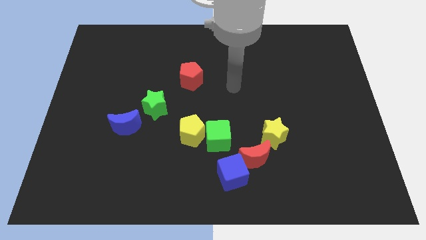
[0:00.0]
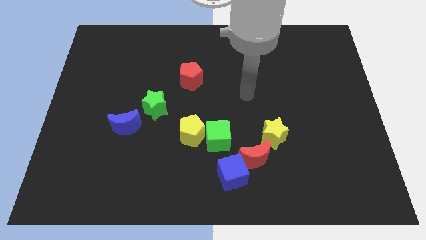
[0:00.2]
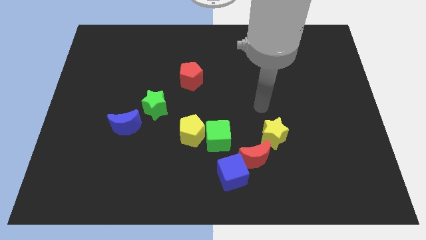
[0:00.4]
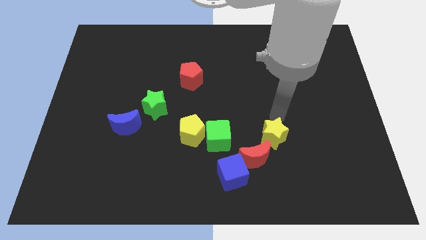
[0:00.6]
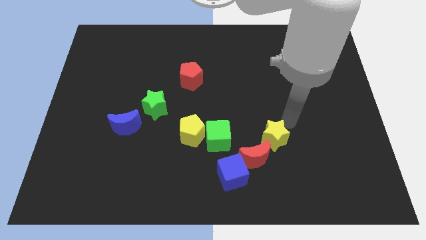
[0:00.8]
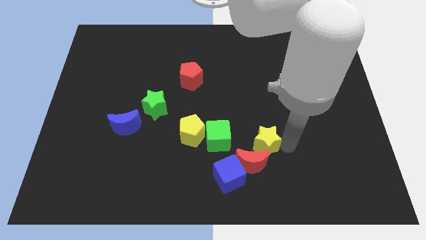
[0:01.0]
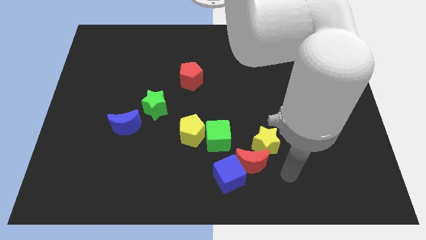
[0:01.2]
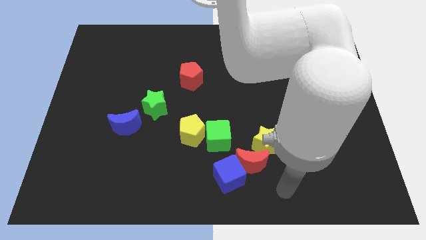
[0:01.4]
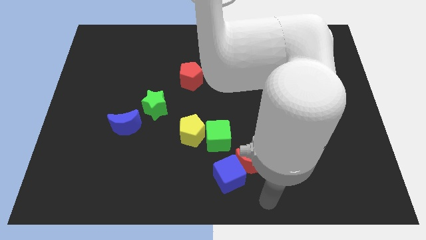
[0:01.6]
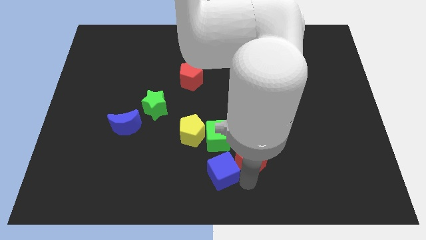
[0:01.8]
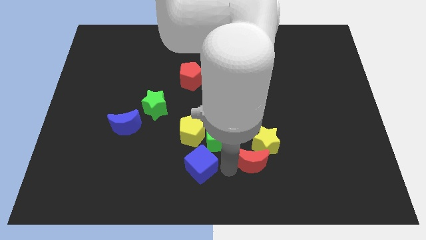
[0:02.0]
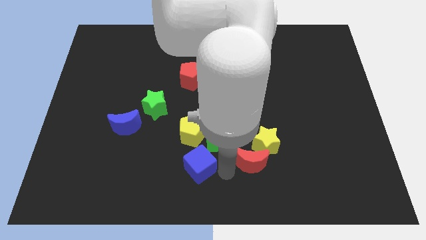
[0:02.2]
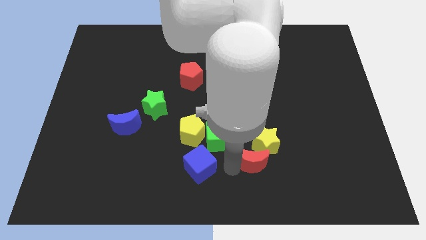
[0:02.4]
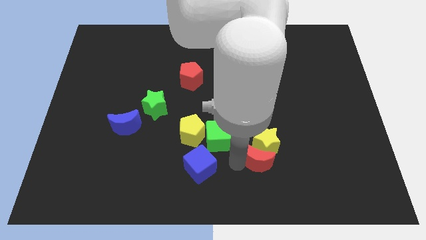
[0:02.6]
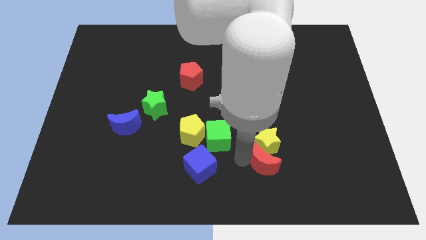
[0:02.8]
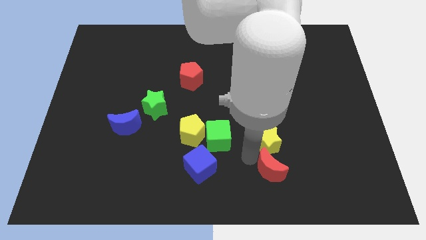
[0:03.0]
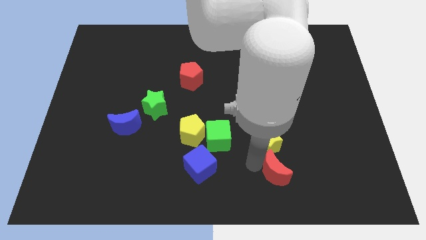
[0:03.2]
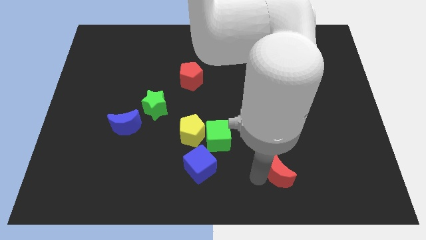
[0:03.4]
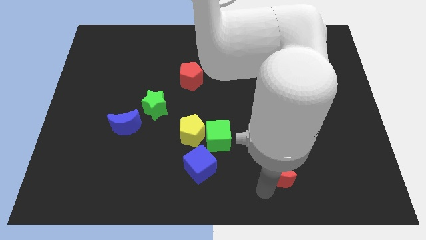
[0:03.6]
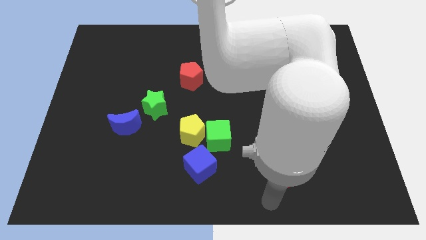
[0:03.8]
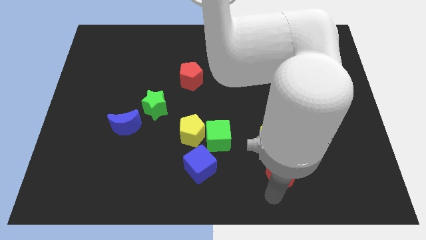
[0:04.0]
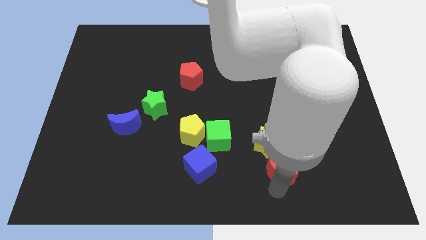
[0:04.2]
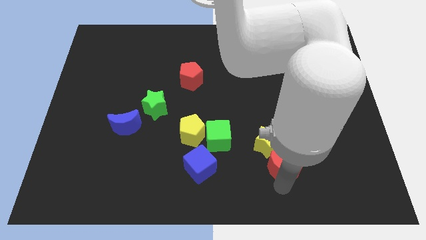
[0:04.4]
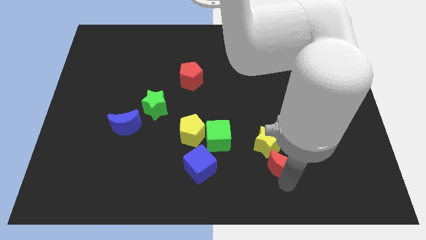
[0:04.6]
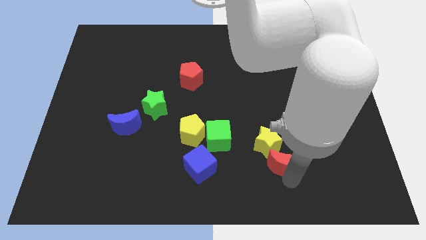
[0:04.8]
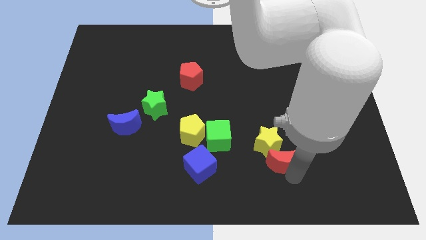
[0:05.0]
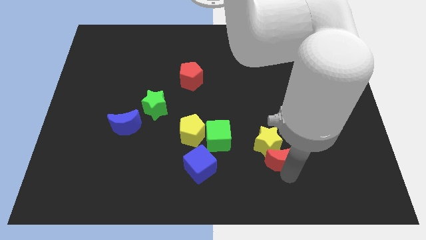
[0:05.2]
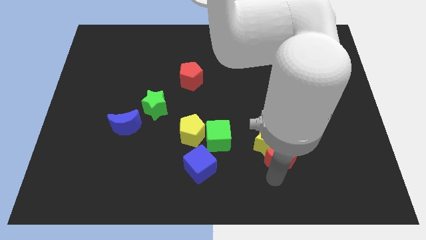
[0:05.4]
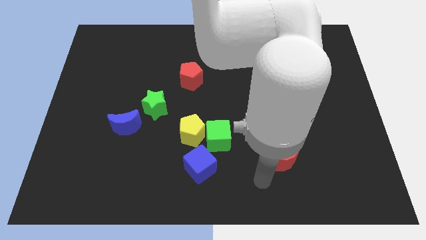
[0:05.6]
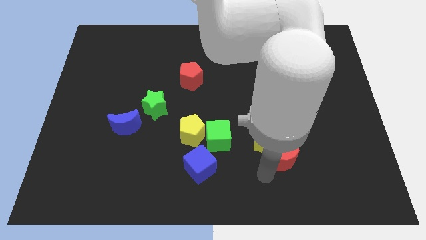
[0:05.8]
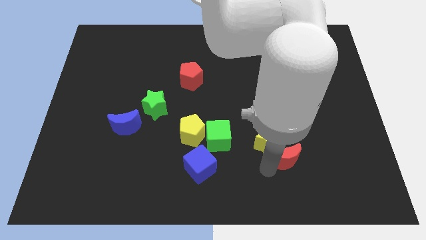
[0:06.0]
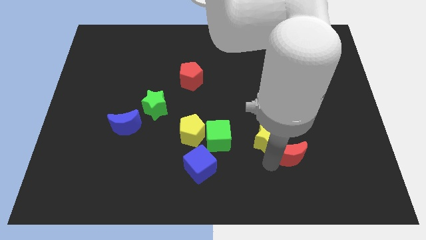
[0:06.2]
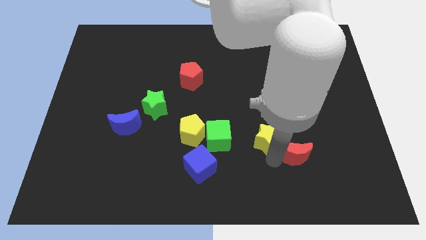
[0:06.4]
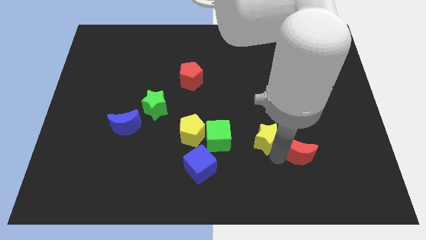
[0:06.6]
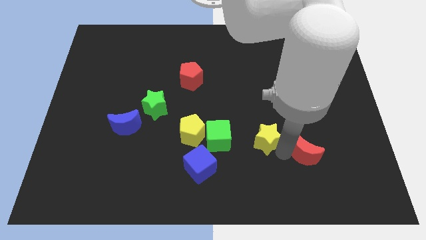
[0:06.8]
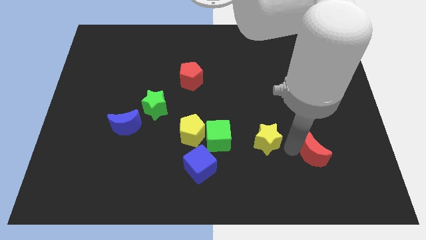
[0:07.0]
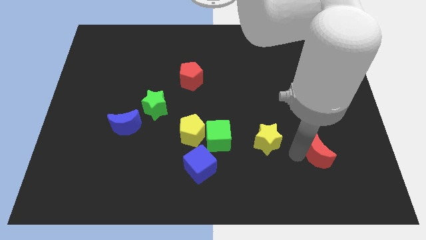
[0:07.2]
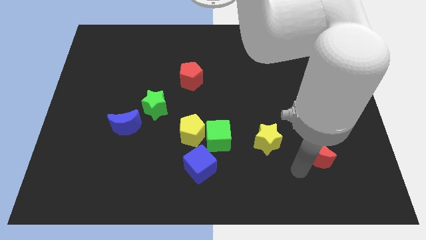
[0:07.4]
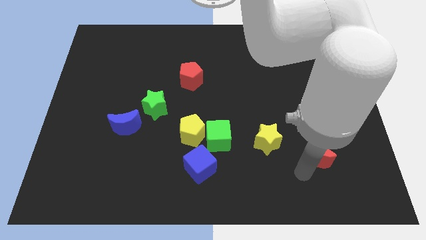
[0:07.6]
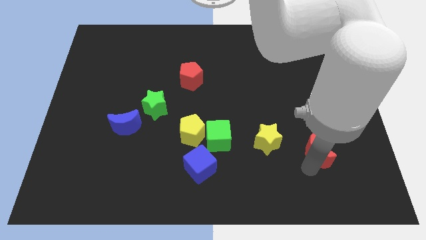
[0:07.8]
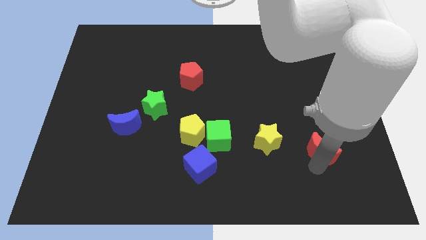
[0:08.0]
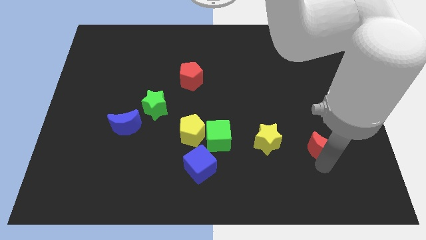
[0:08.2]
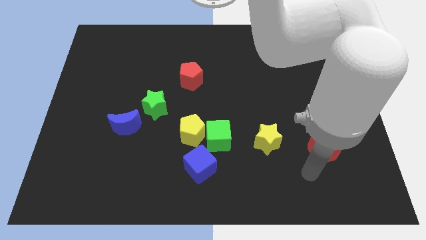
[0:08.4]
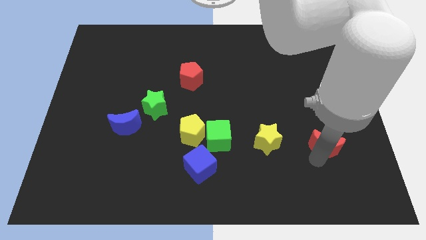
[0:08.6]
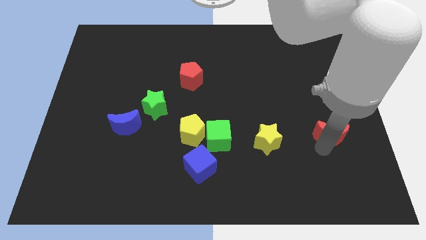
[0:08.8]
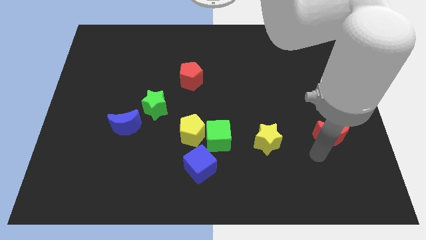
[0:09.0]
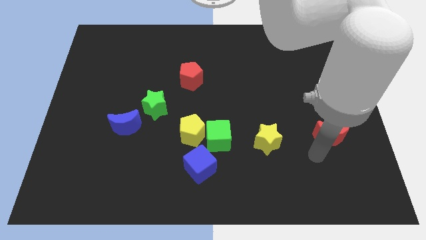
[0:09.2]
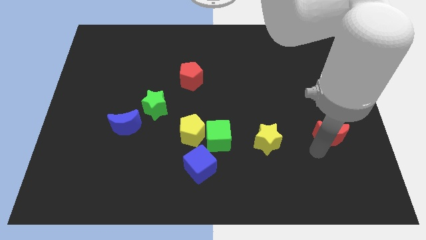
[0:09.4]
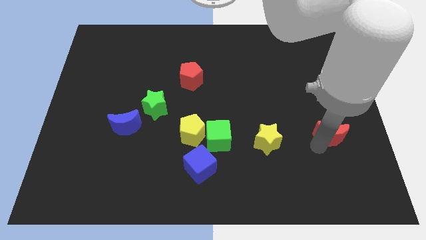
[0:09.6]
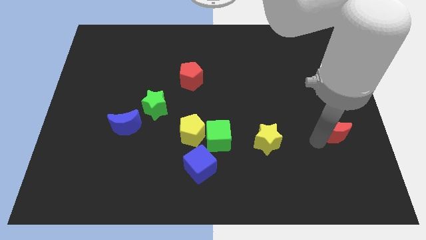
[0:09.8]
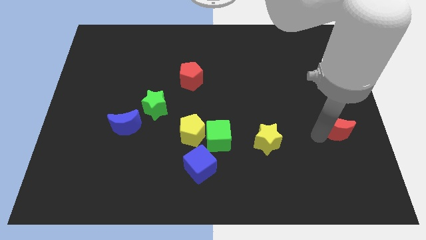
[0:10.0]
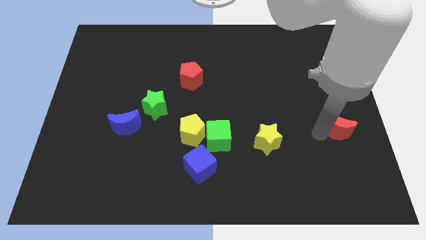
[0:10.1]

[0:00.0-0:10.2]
push the red moon to the center right

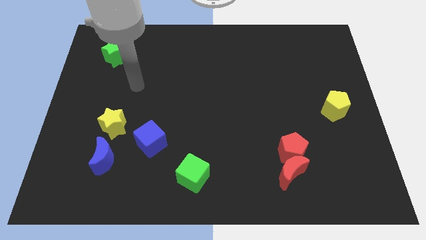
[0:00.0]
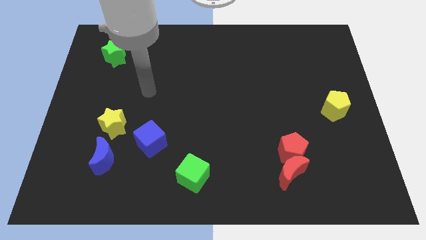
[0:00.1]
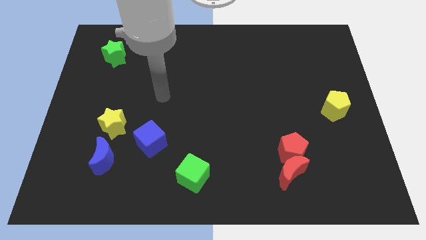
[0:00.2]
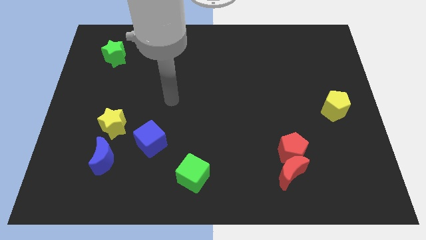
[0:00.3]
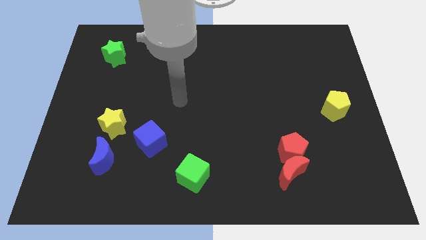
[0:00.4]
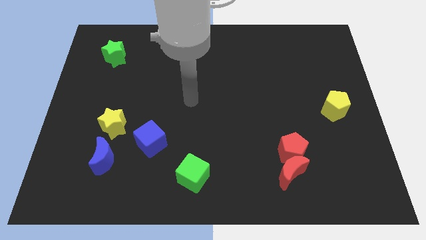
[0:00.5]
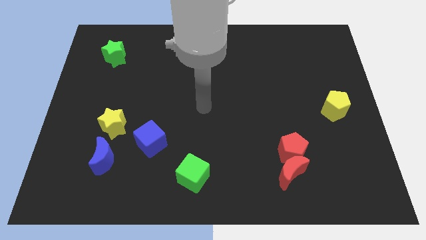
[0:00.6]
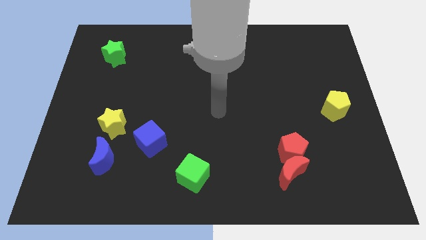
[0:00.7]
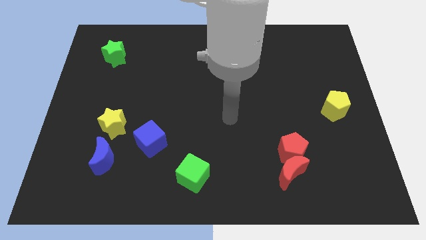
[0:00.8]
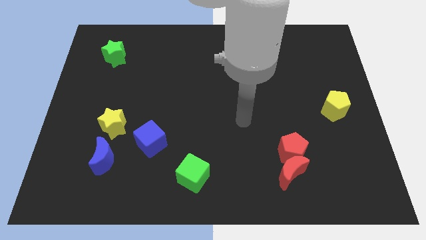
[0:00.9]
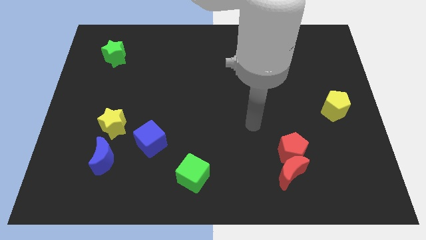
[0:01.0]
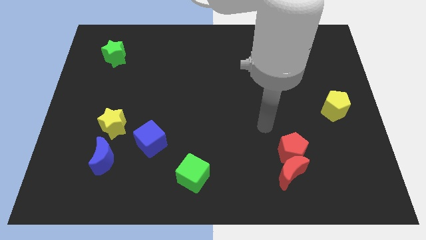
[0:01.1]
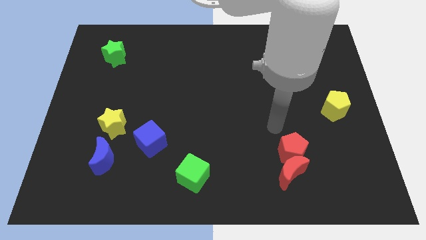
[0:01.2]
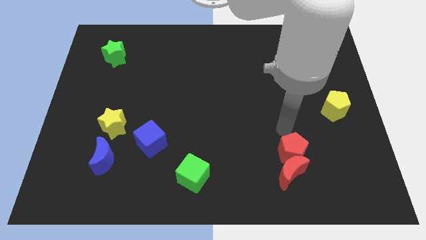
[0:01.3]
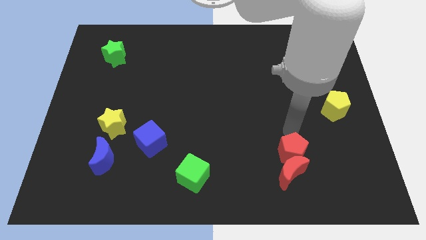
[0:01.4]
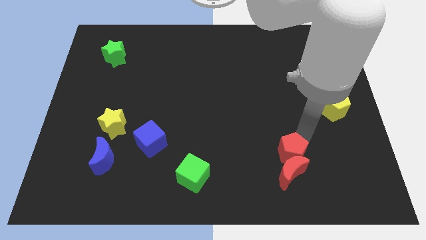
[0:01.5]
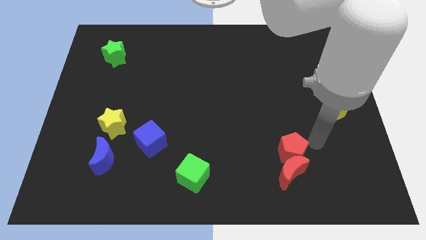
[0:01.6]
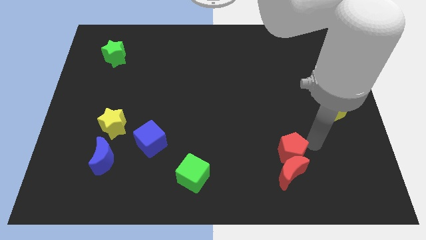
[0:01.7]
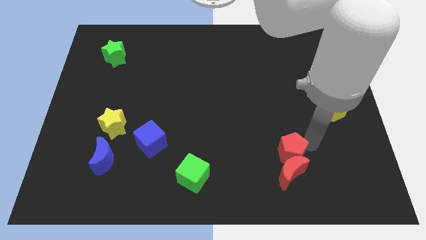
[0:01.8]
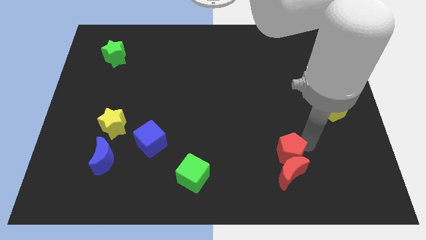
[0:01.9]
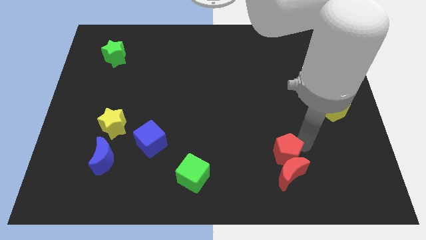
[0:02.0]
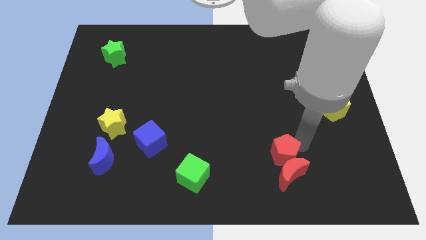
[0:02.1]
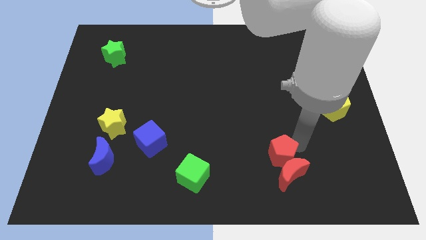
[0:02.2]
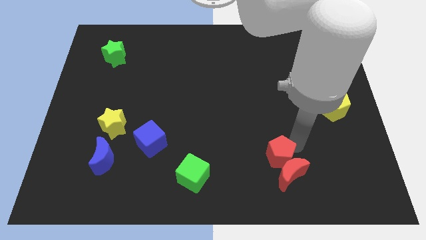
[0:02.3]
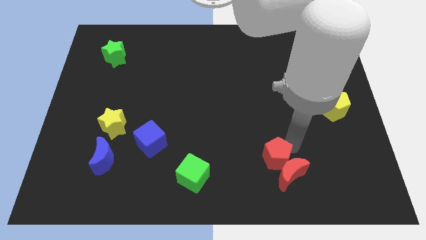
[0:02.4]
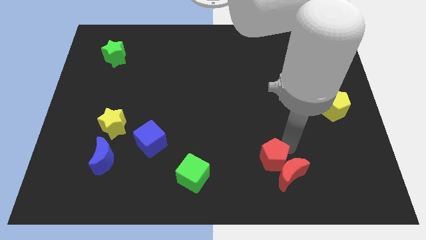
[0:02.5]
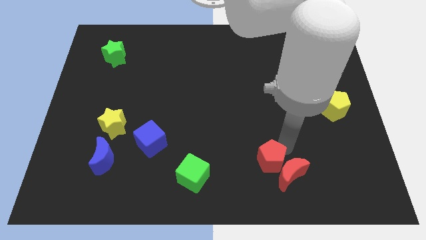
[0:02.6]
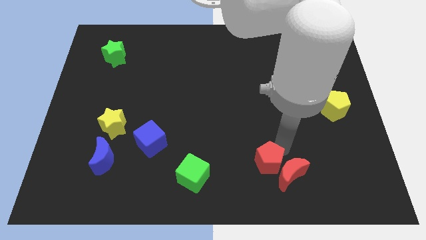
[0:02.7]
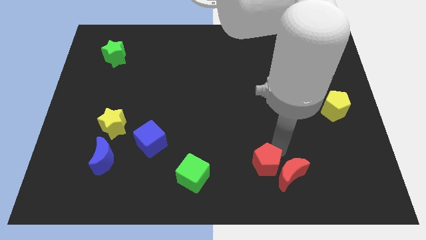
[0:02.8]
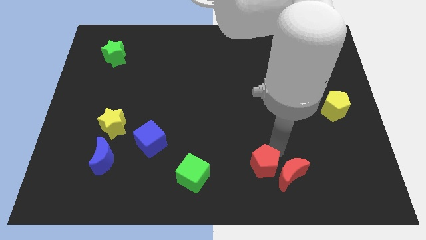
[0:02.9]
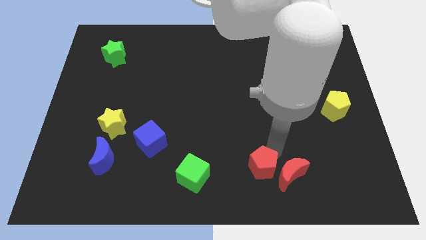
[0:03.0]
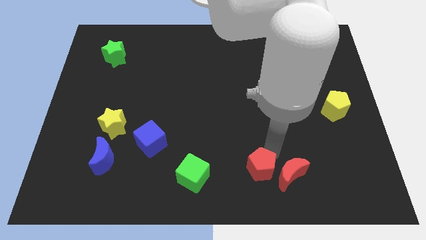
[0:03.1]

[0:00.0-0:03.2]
move the red pentagon to the bottom
